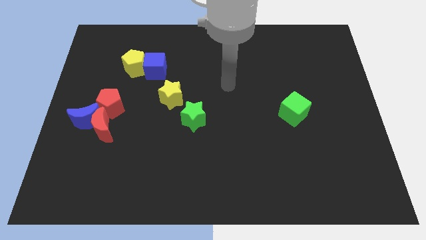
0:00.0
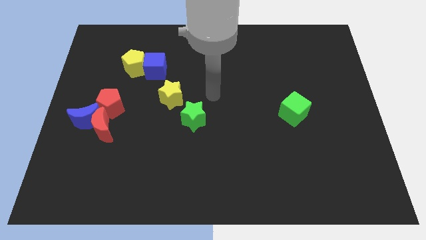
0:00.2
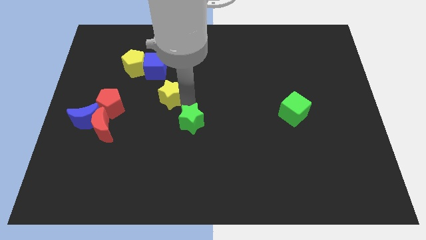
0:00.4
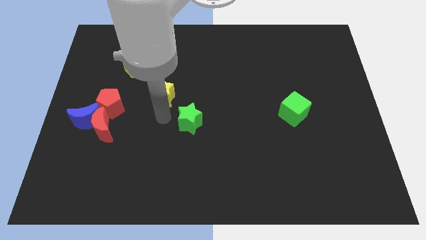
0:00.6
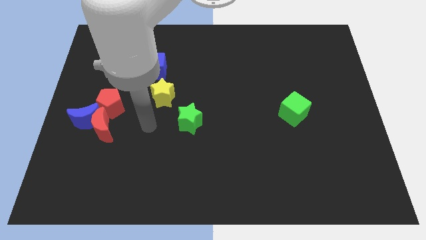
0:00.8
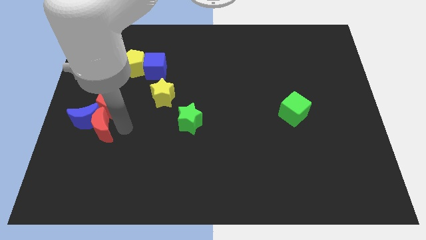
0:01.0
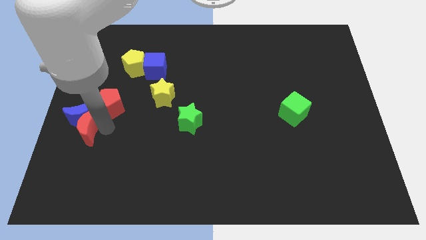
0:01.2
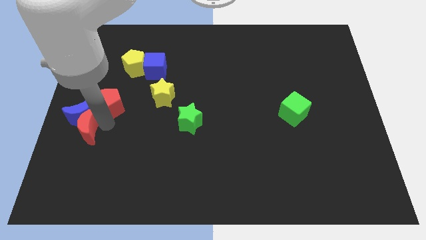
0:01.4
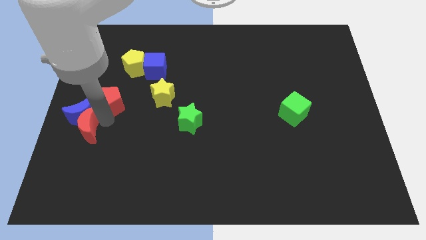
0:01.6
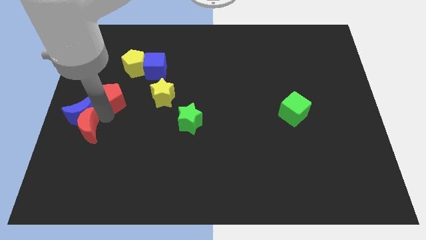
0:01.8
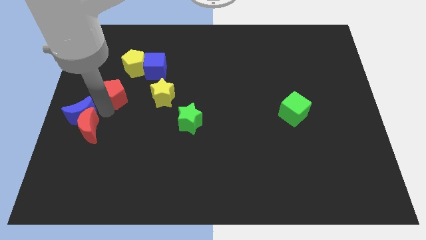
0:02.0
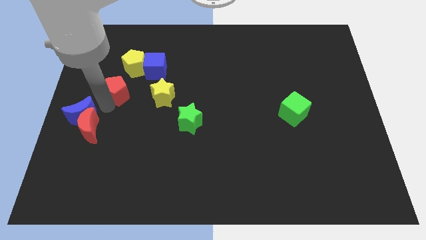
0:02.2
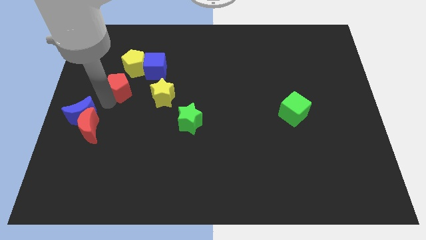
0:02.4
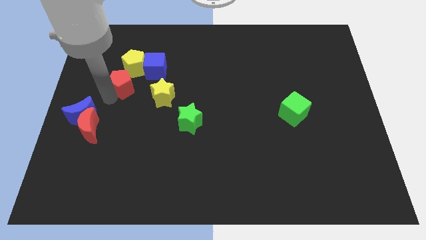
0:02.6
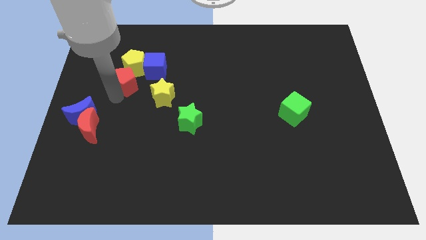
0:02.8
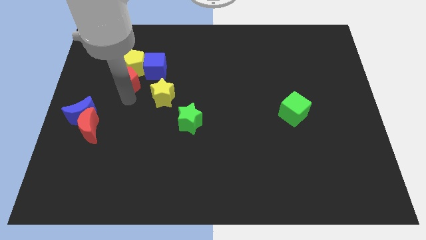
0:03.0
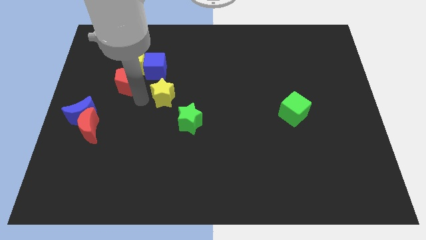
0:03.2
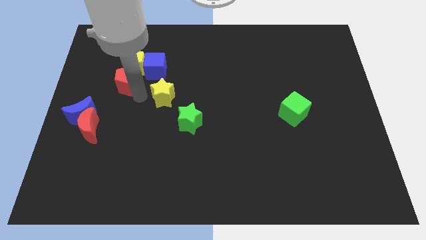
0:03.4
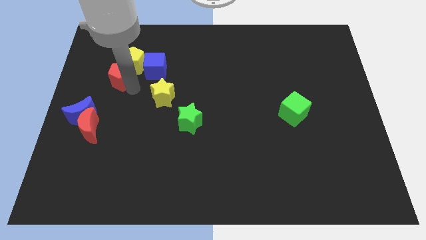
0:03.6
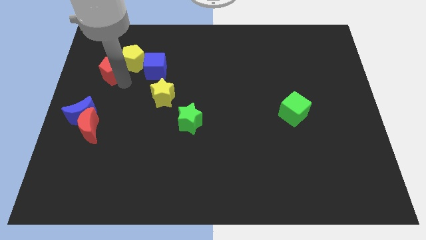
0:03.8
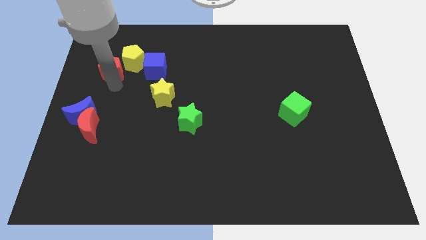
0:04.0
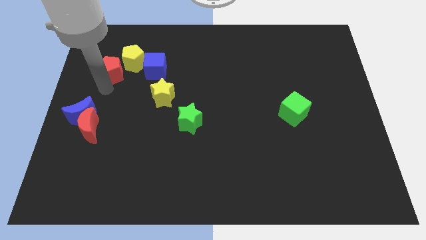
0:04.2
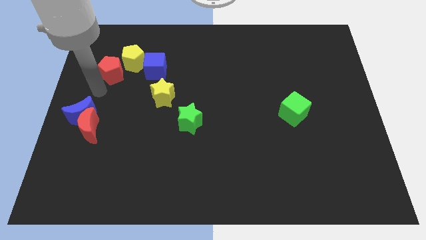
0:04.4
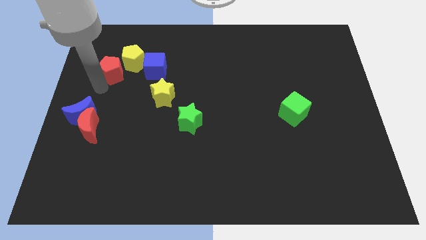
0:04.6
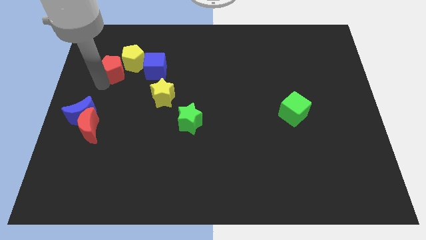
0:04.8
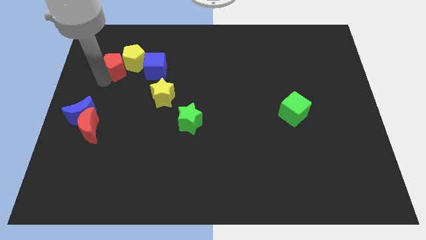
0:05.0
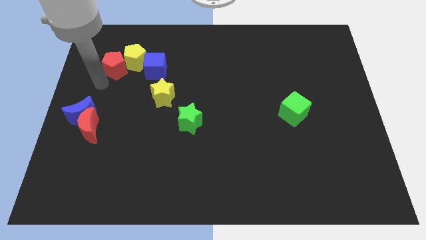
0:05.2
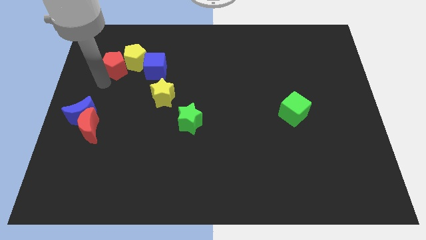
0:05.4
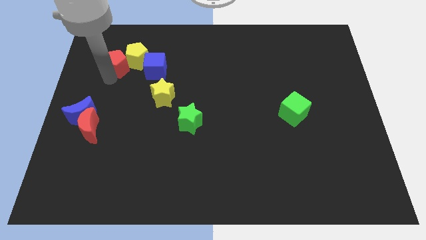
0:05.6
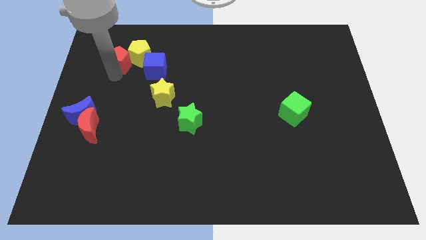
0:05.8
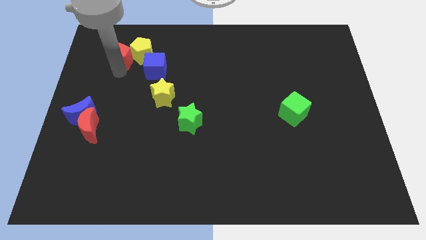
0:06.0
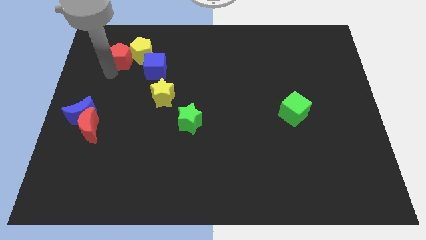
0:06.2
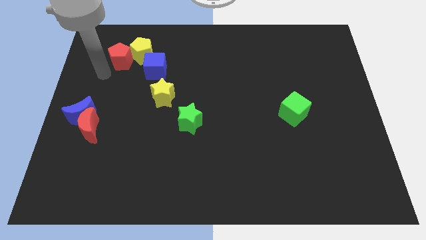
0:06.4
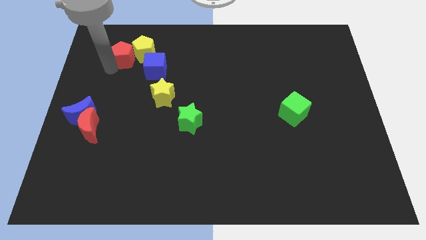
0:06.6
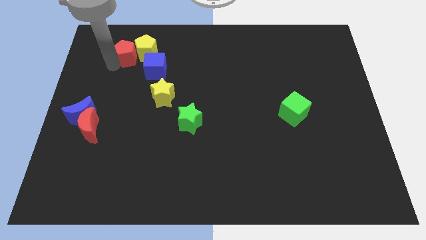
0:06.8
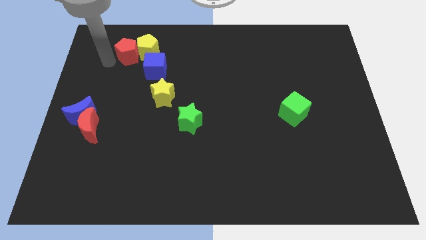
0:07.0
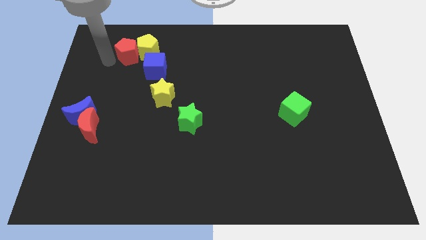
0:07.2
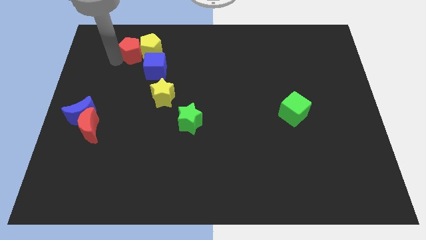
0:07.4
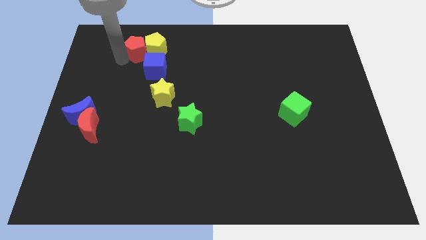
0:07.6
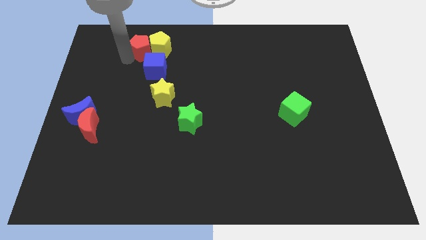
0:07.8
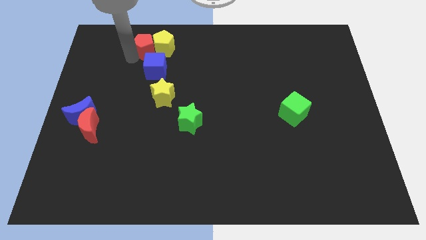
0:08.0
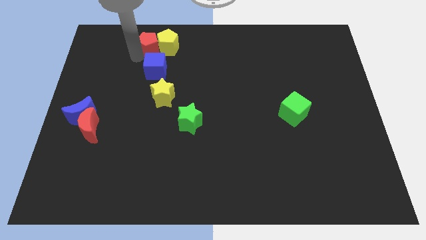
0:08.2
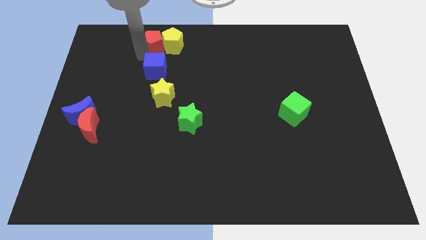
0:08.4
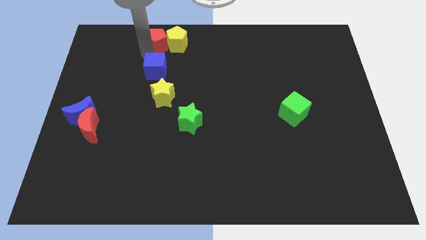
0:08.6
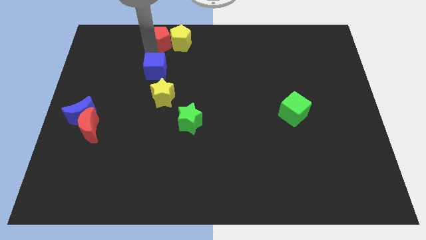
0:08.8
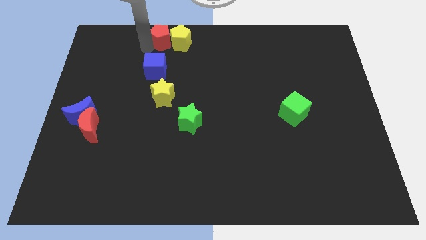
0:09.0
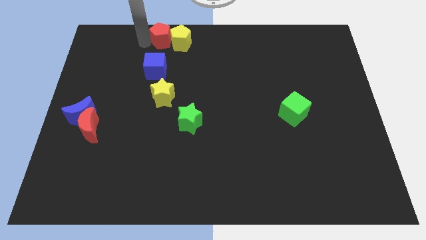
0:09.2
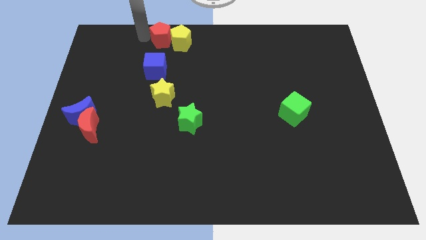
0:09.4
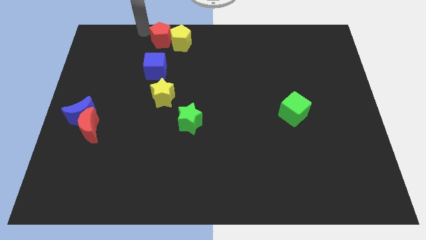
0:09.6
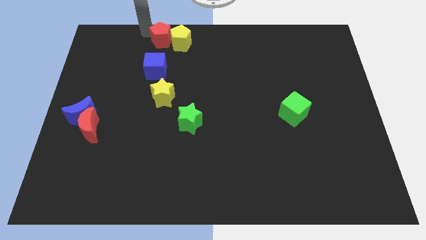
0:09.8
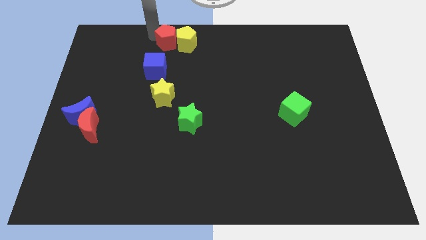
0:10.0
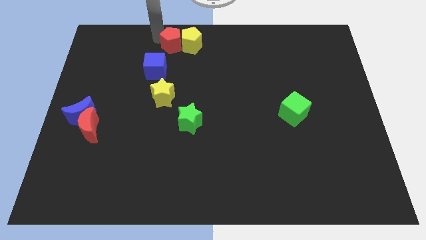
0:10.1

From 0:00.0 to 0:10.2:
push the red pentagon to the towards your base

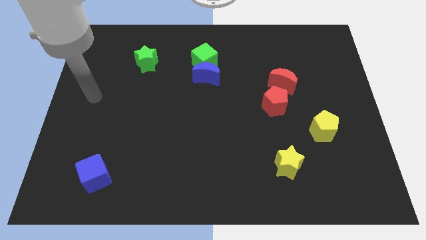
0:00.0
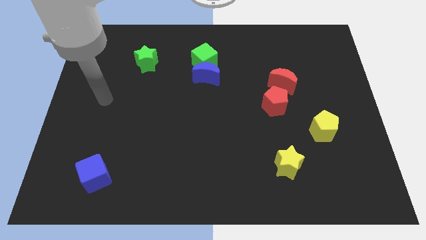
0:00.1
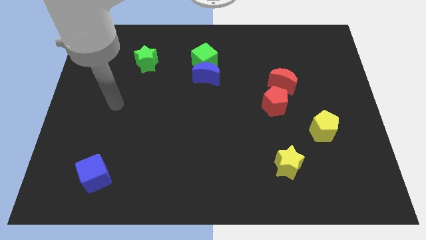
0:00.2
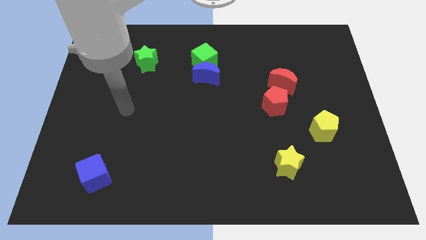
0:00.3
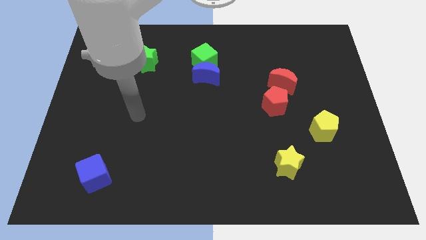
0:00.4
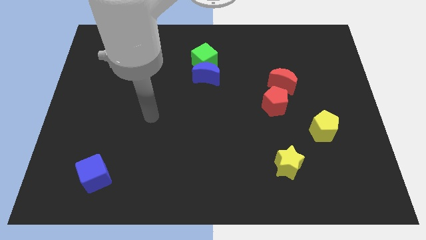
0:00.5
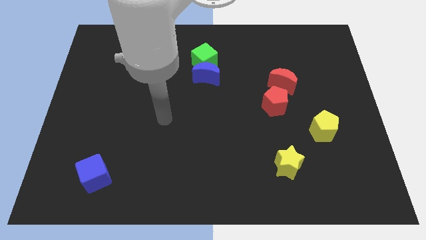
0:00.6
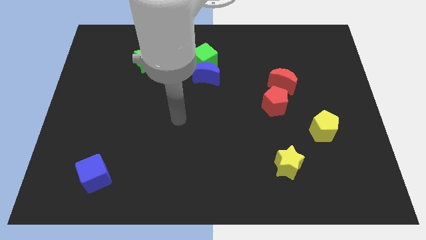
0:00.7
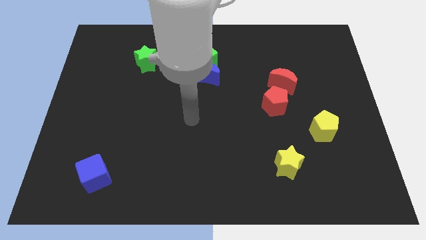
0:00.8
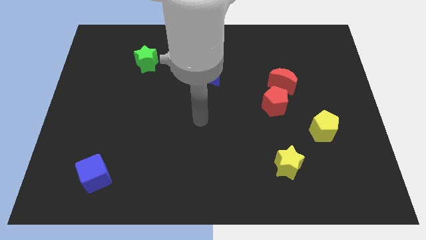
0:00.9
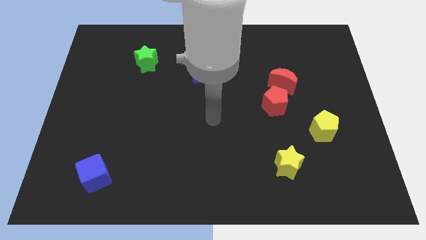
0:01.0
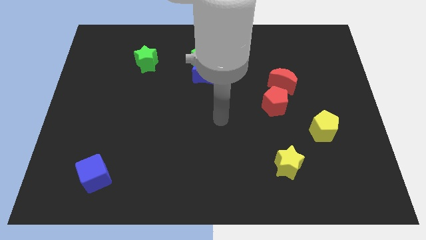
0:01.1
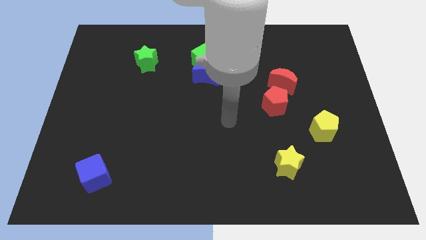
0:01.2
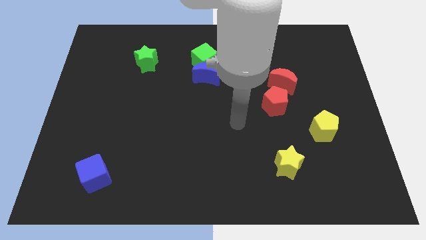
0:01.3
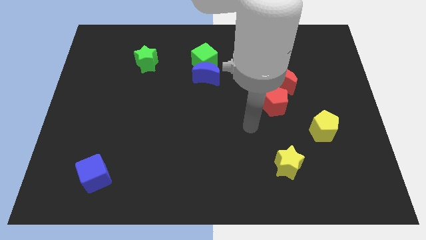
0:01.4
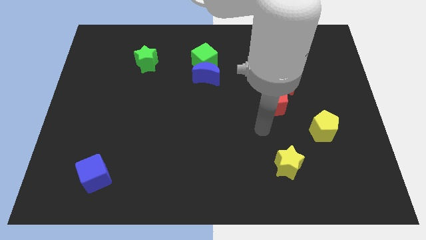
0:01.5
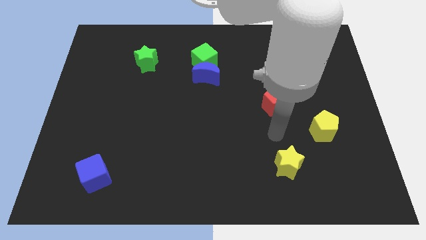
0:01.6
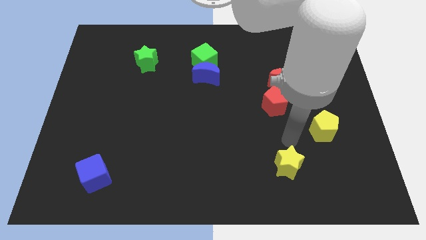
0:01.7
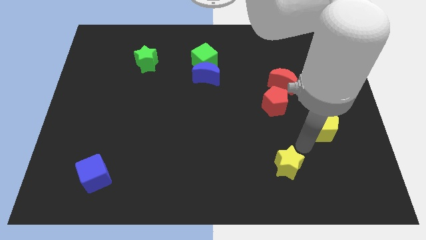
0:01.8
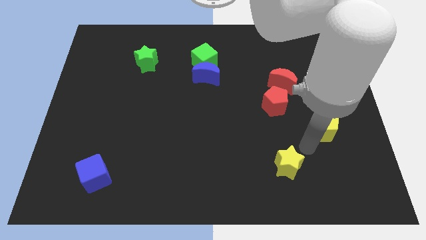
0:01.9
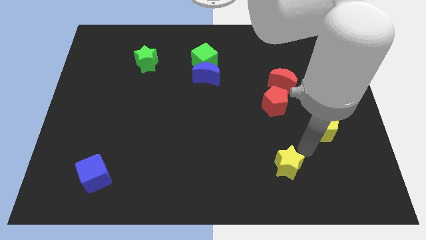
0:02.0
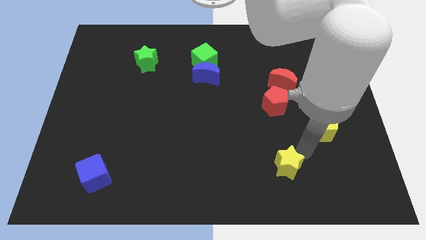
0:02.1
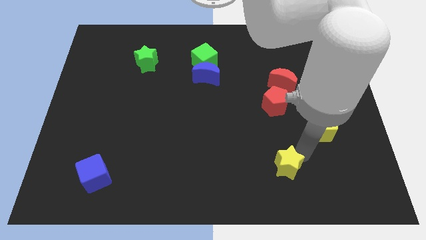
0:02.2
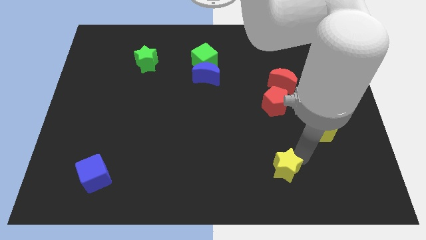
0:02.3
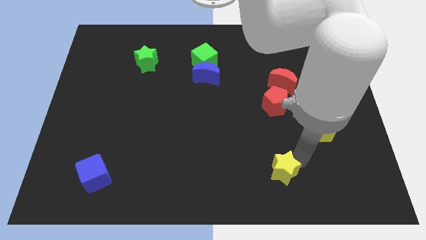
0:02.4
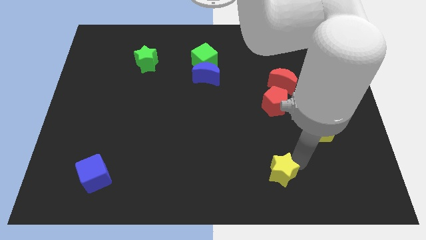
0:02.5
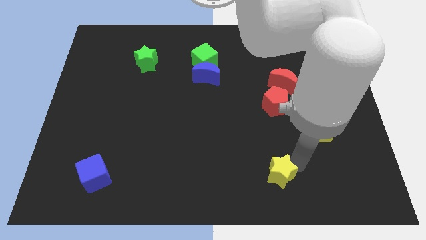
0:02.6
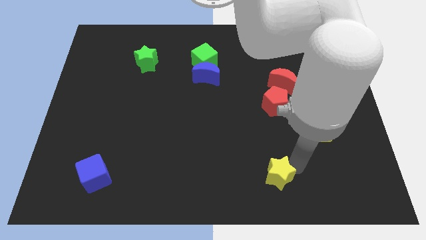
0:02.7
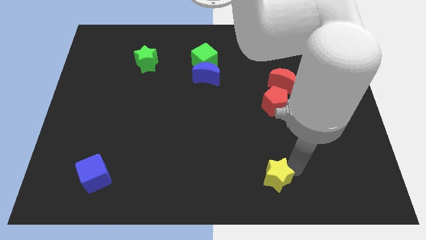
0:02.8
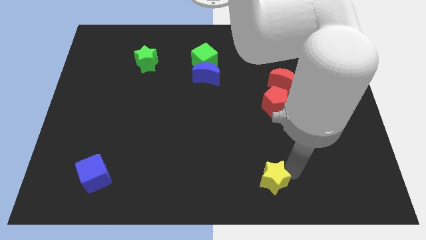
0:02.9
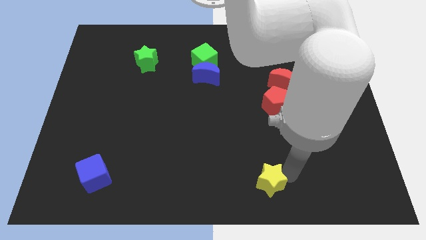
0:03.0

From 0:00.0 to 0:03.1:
push the yellow star to the bottom side
